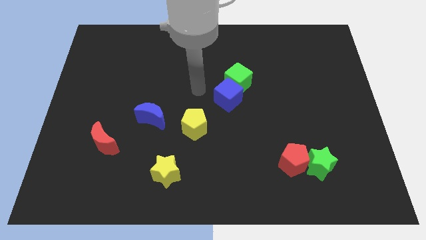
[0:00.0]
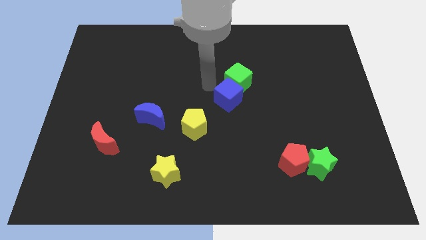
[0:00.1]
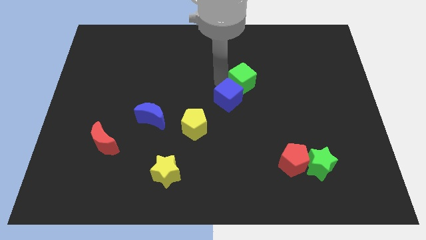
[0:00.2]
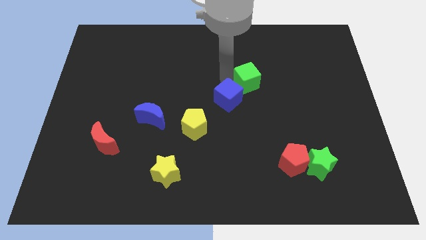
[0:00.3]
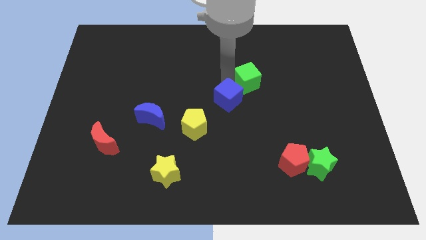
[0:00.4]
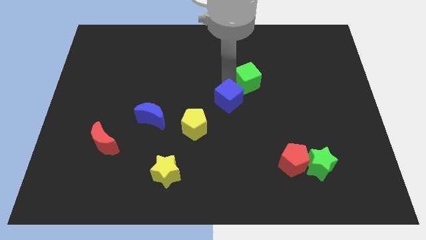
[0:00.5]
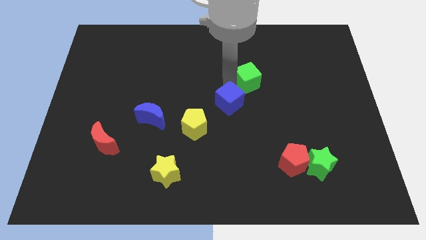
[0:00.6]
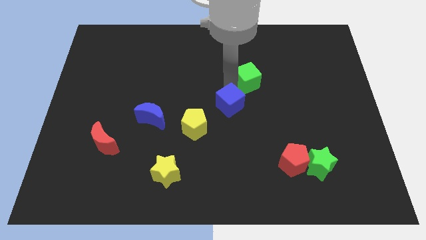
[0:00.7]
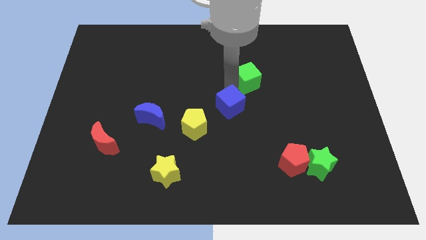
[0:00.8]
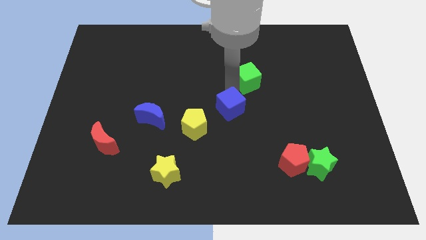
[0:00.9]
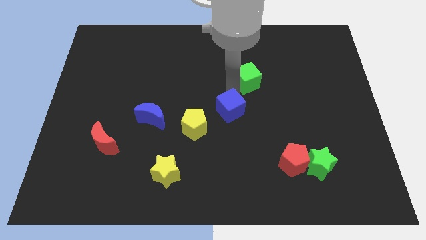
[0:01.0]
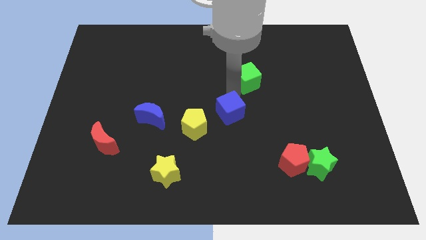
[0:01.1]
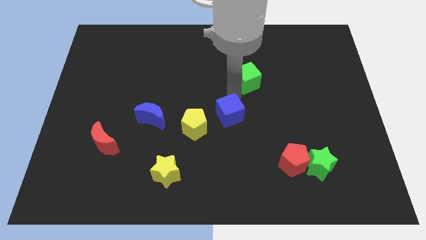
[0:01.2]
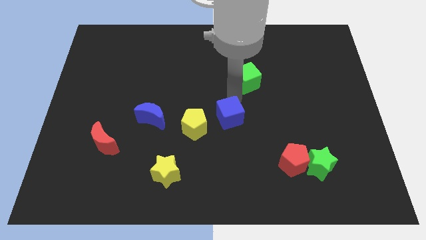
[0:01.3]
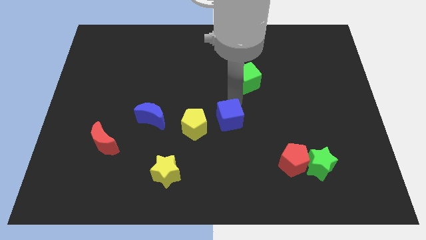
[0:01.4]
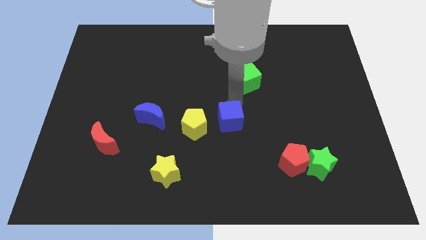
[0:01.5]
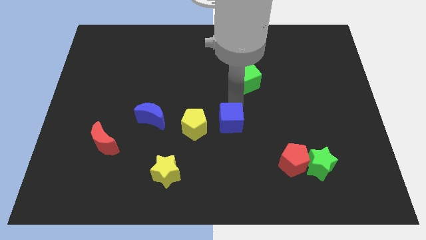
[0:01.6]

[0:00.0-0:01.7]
push the blue cube a little bit downwards

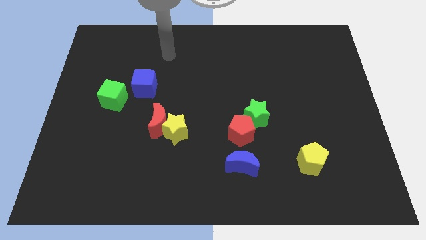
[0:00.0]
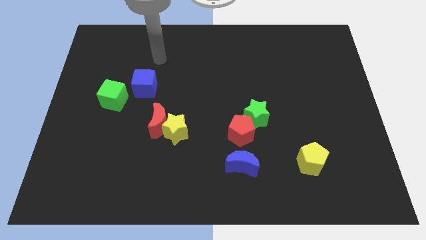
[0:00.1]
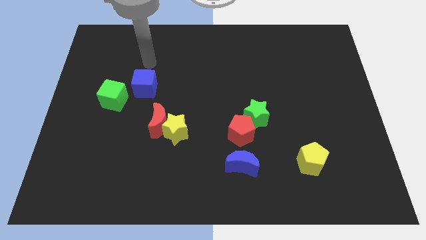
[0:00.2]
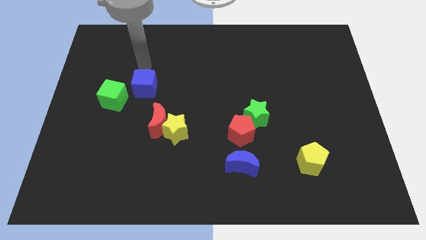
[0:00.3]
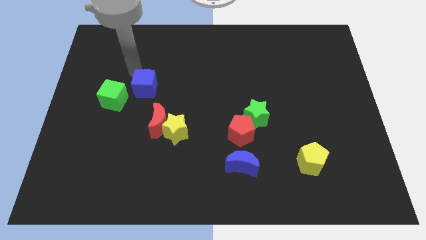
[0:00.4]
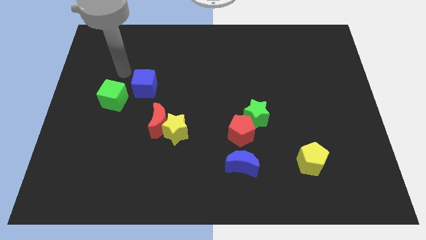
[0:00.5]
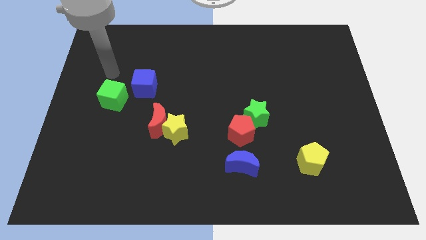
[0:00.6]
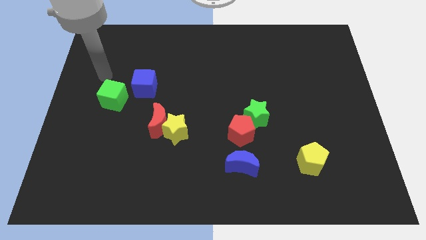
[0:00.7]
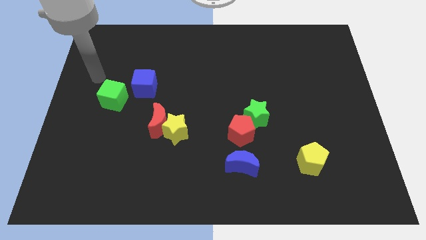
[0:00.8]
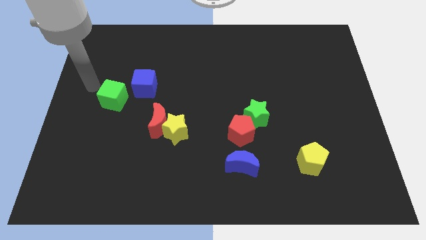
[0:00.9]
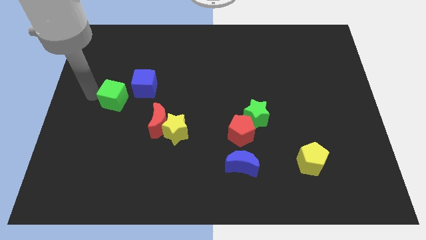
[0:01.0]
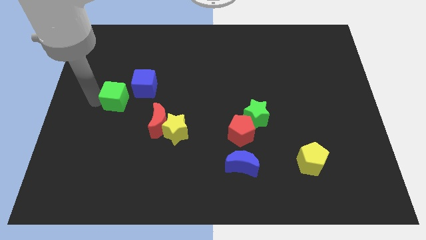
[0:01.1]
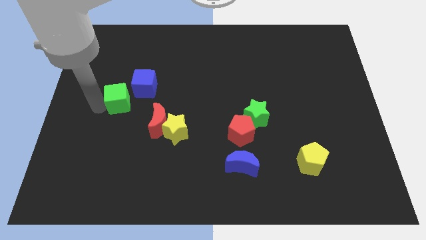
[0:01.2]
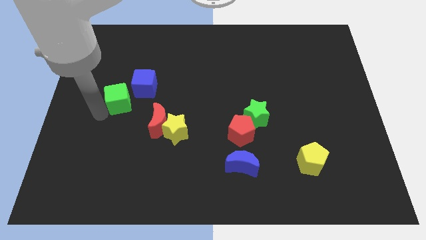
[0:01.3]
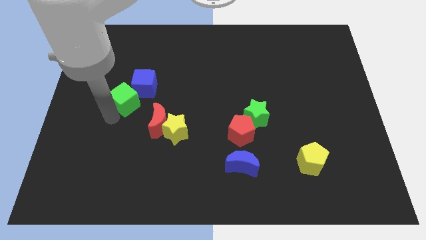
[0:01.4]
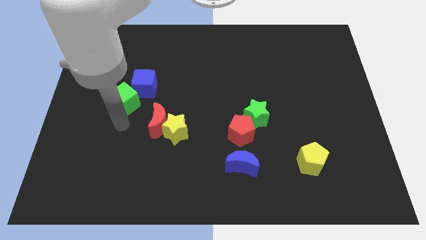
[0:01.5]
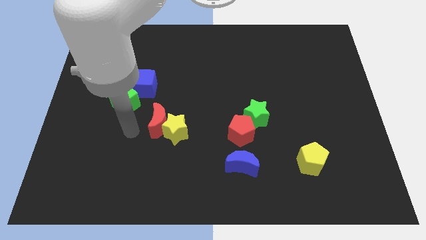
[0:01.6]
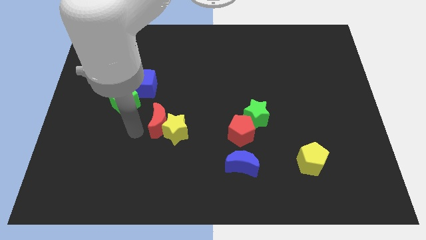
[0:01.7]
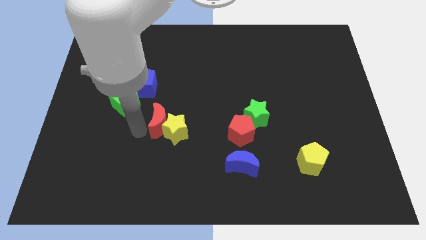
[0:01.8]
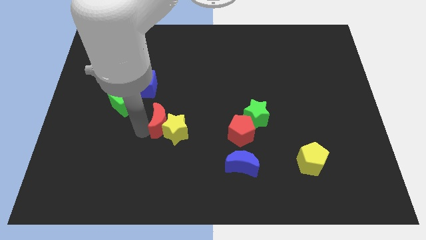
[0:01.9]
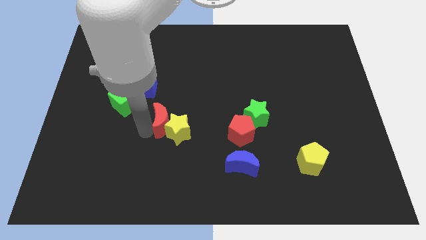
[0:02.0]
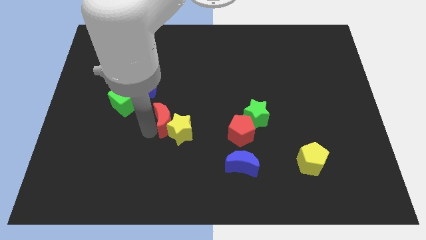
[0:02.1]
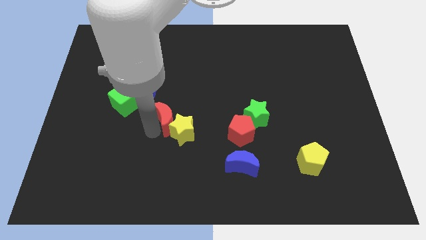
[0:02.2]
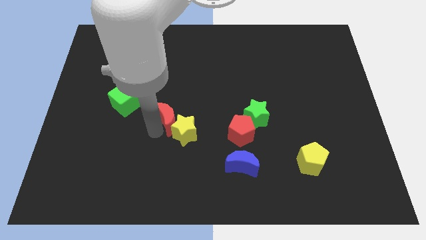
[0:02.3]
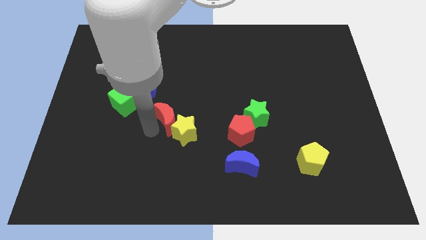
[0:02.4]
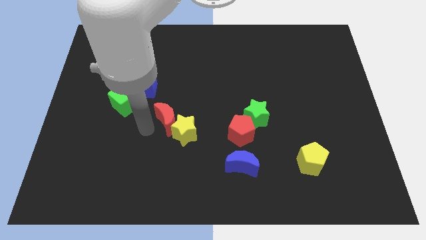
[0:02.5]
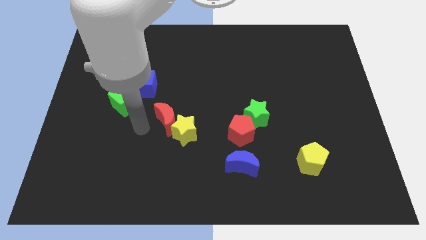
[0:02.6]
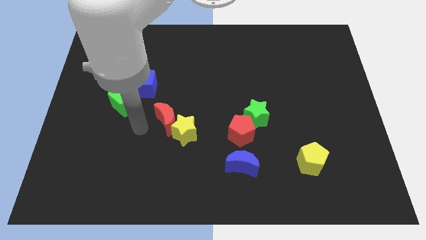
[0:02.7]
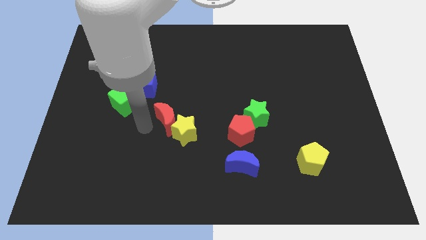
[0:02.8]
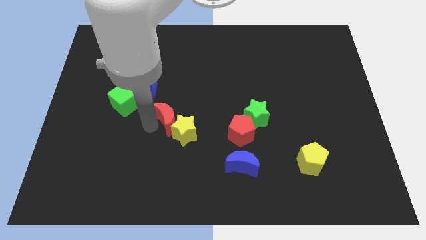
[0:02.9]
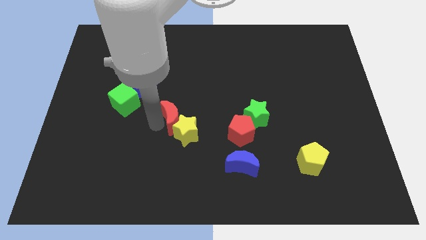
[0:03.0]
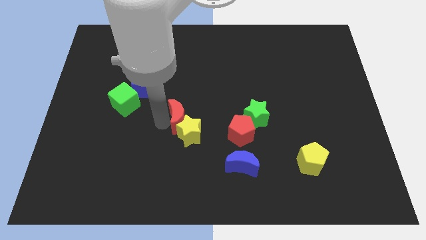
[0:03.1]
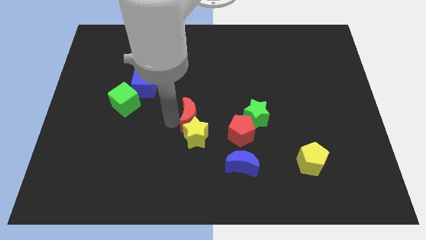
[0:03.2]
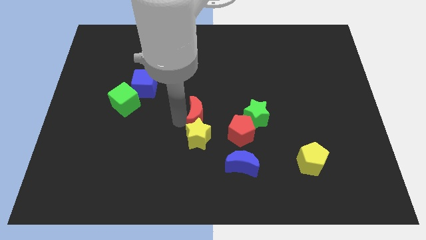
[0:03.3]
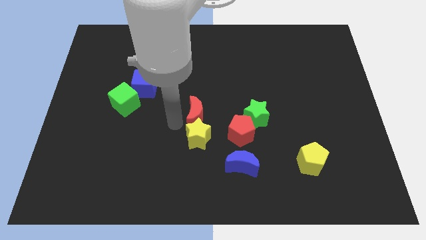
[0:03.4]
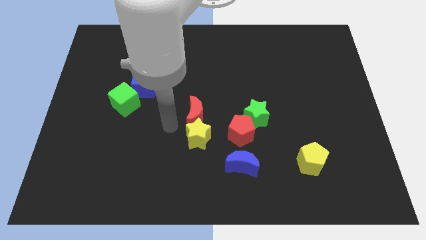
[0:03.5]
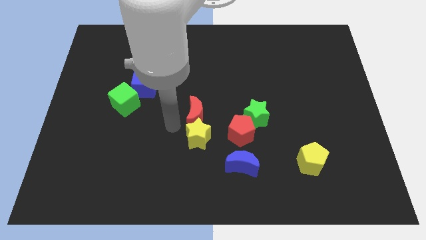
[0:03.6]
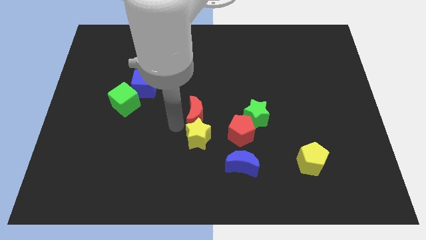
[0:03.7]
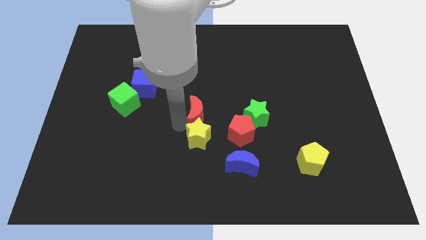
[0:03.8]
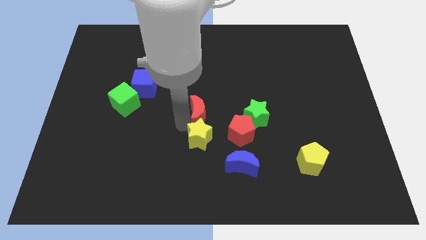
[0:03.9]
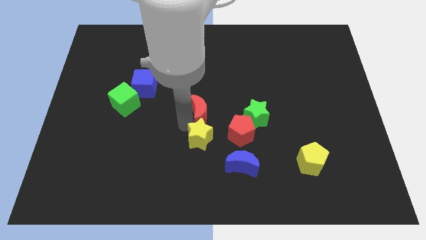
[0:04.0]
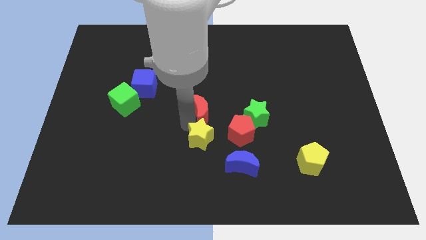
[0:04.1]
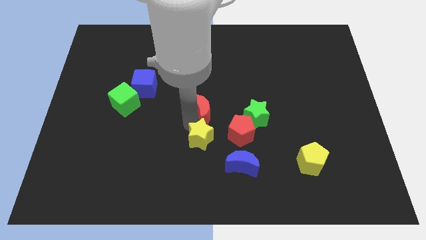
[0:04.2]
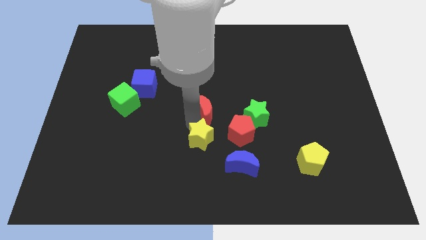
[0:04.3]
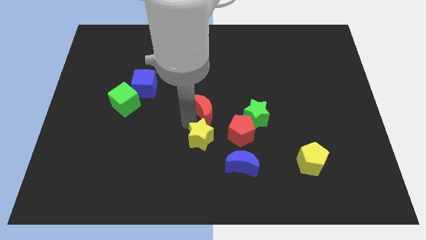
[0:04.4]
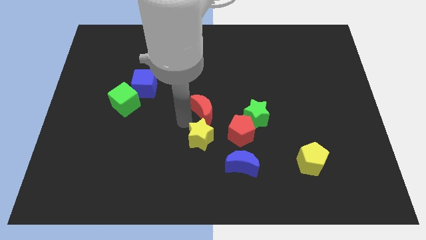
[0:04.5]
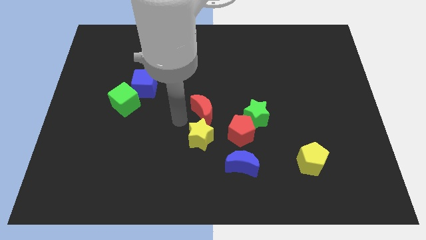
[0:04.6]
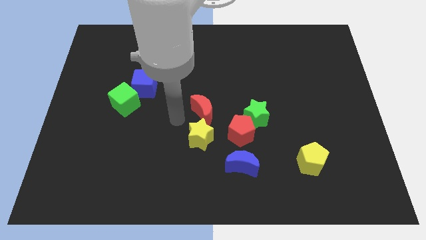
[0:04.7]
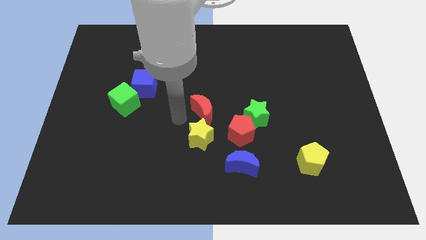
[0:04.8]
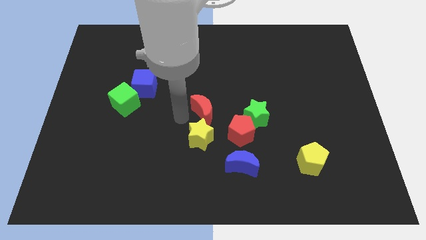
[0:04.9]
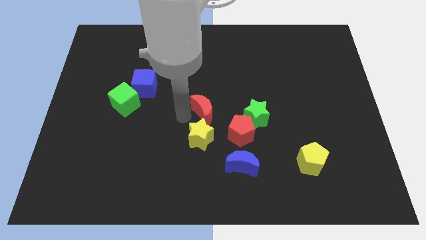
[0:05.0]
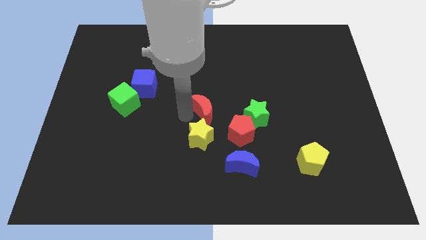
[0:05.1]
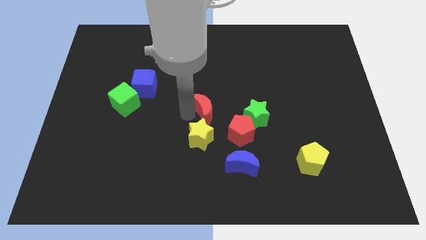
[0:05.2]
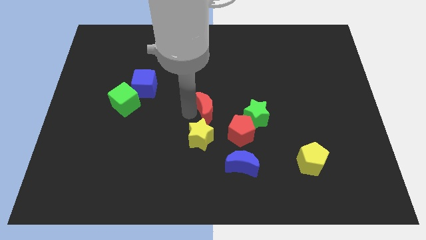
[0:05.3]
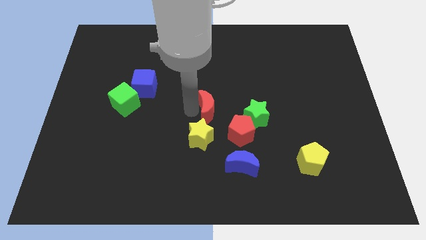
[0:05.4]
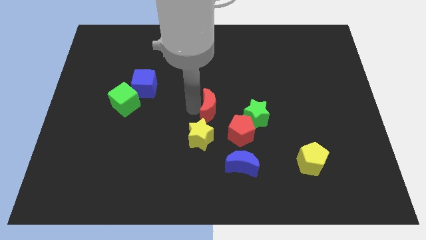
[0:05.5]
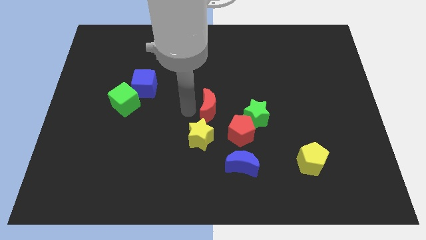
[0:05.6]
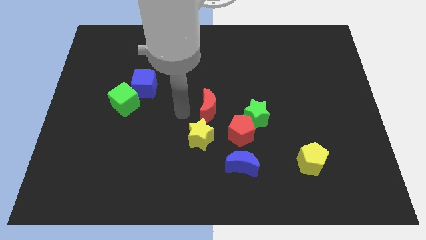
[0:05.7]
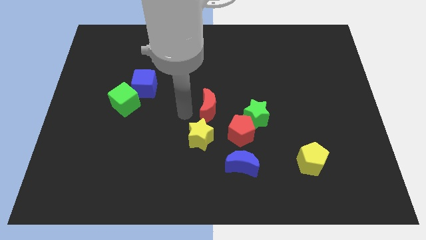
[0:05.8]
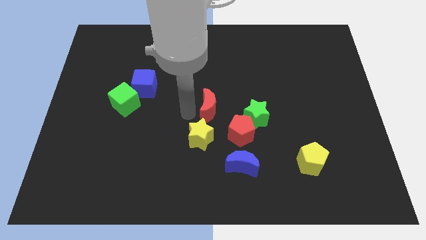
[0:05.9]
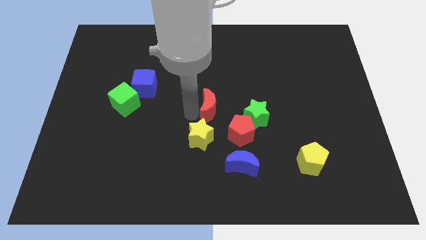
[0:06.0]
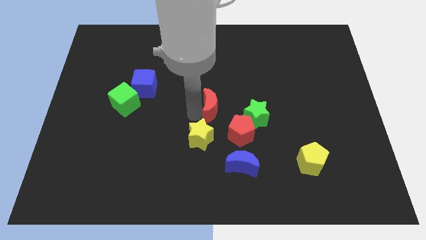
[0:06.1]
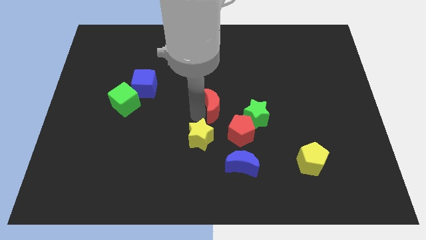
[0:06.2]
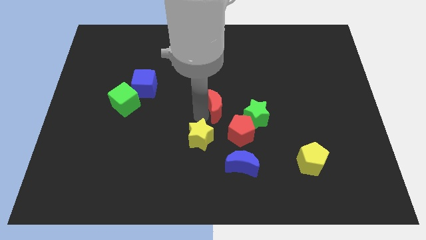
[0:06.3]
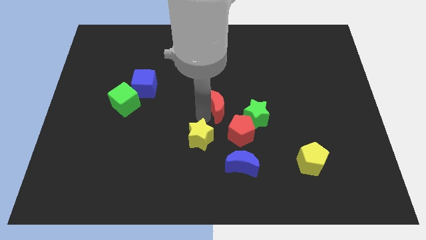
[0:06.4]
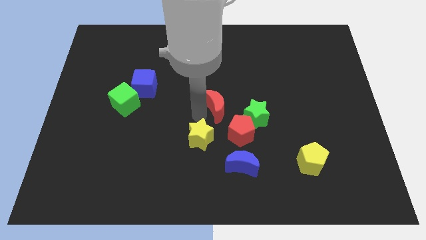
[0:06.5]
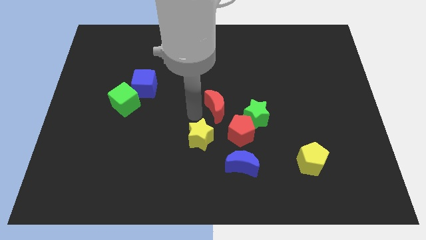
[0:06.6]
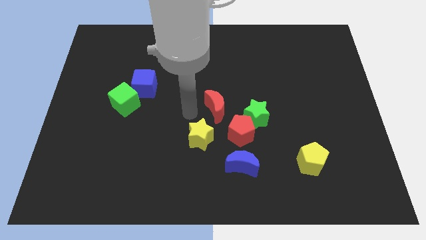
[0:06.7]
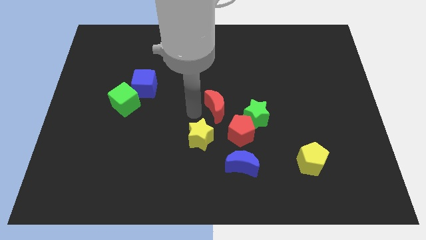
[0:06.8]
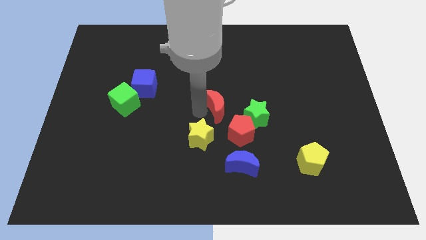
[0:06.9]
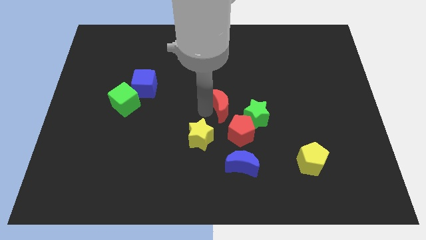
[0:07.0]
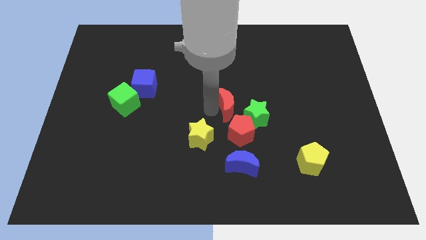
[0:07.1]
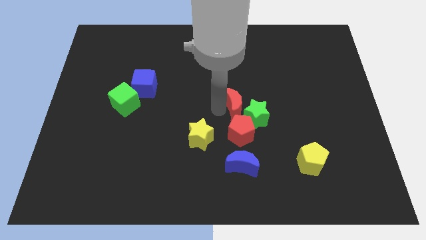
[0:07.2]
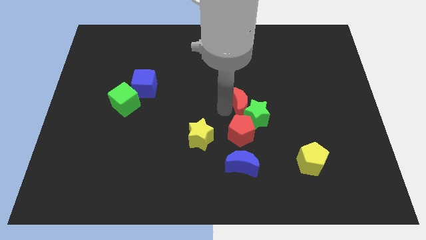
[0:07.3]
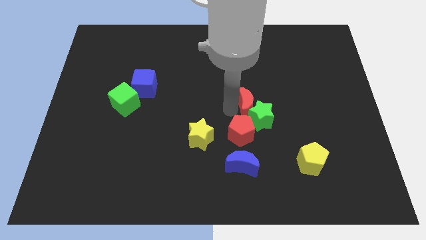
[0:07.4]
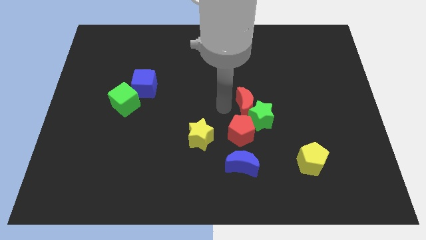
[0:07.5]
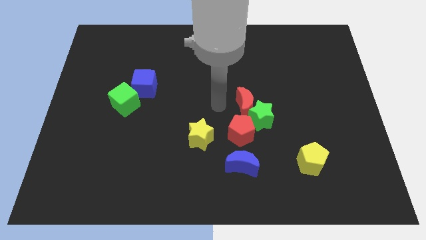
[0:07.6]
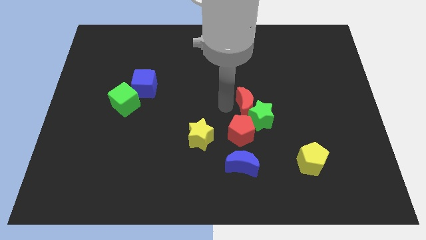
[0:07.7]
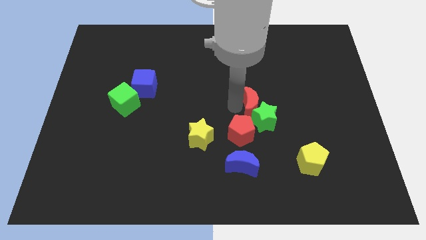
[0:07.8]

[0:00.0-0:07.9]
slide the red moon right
